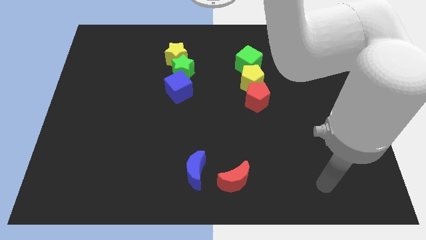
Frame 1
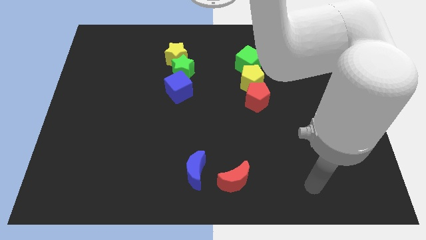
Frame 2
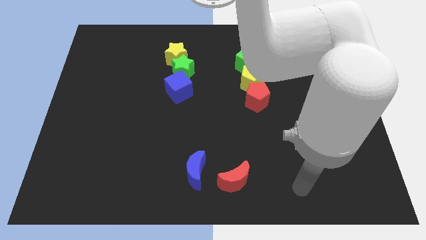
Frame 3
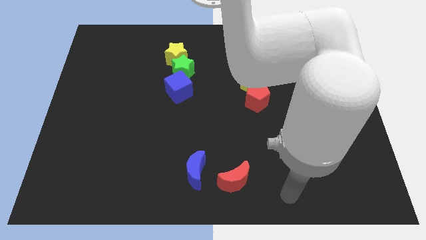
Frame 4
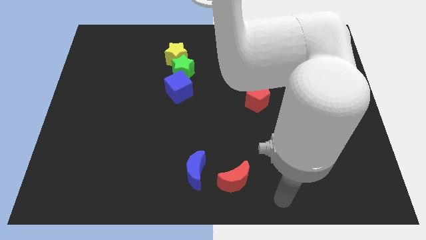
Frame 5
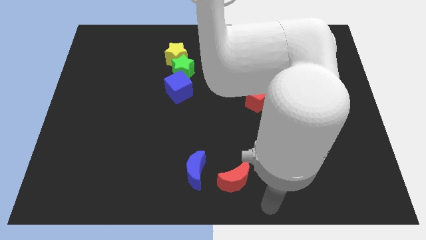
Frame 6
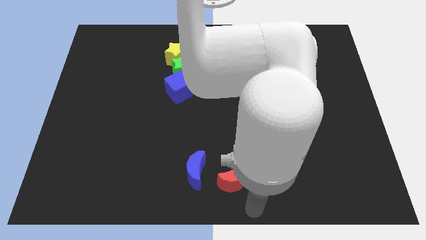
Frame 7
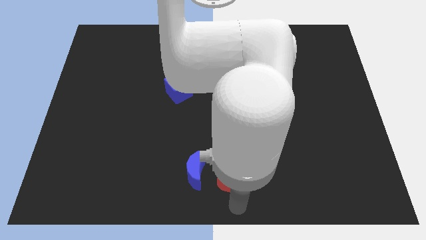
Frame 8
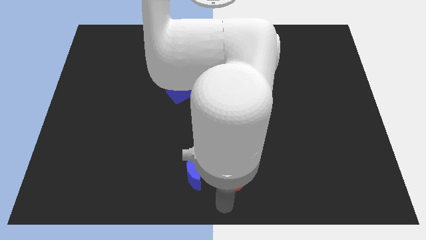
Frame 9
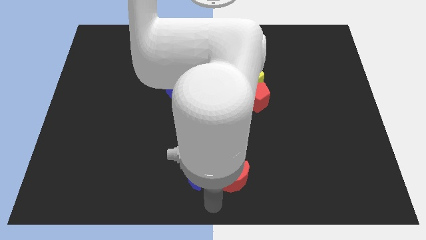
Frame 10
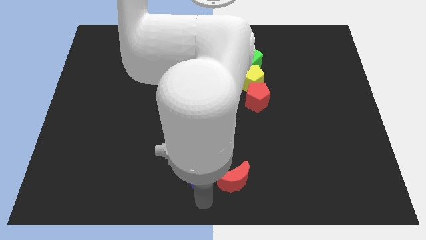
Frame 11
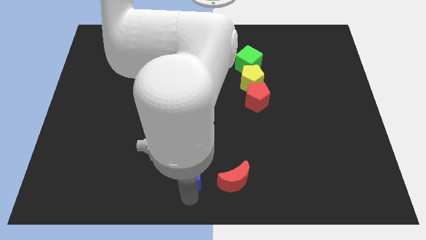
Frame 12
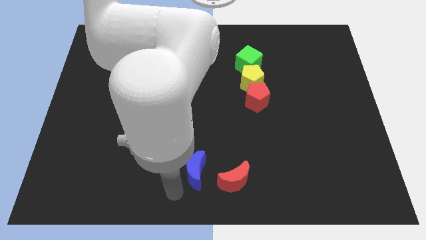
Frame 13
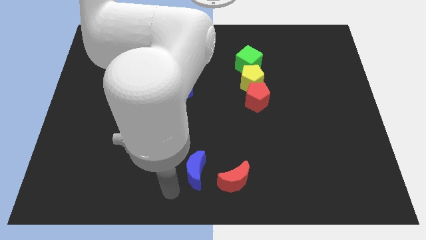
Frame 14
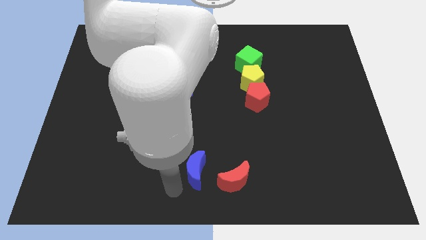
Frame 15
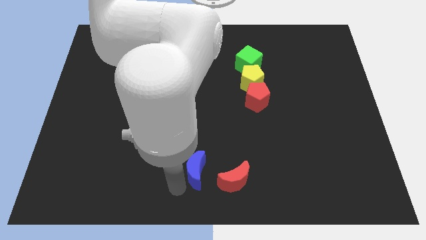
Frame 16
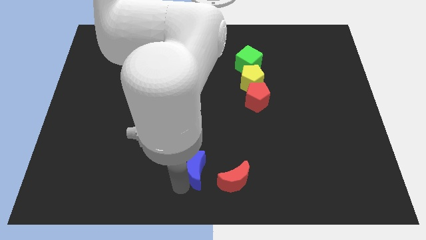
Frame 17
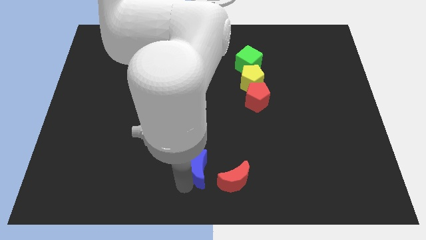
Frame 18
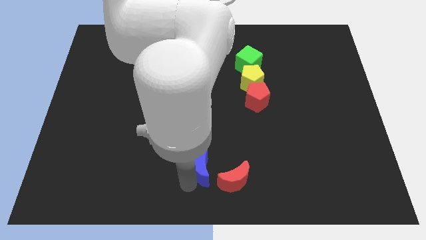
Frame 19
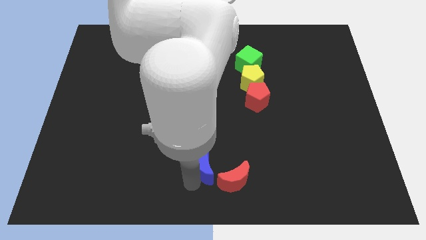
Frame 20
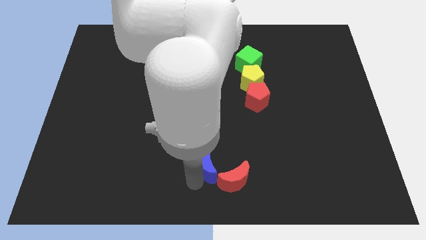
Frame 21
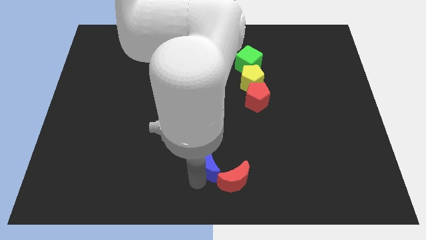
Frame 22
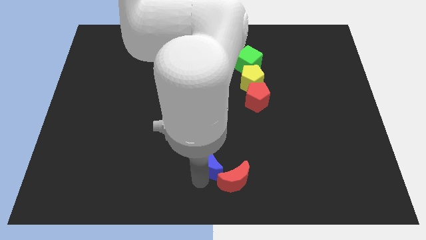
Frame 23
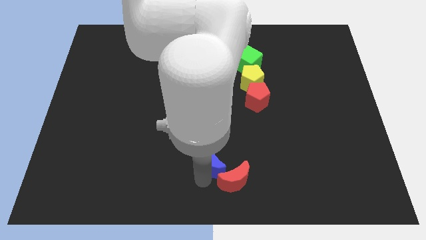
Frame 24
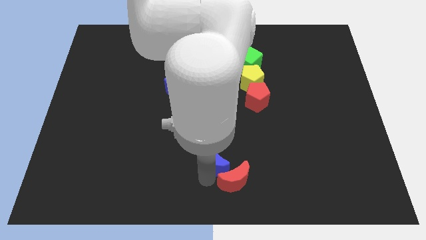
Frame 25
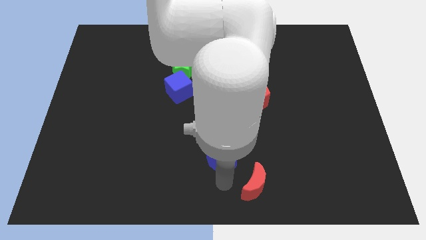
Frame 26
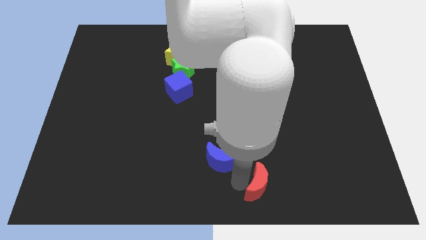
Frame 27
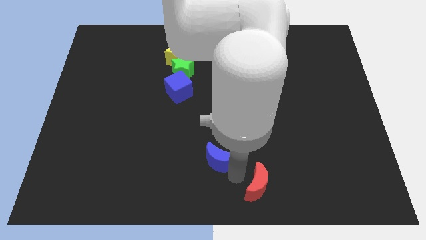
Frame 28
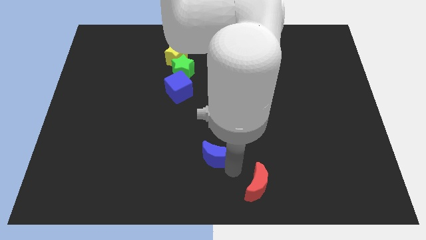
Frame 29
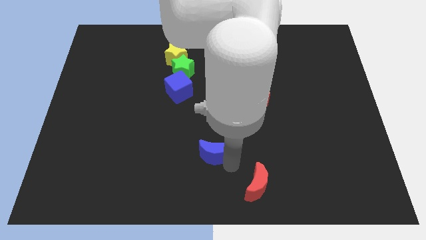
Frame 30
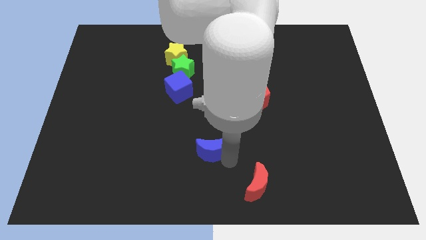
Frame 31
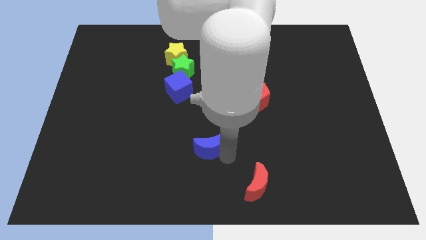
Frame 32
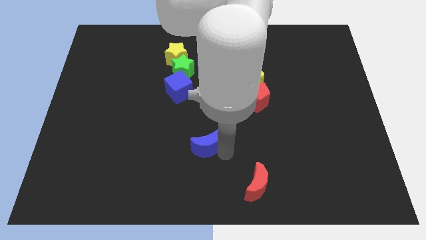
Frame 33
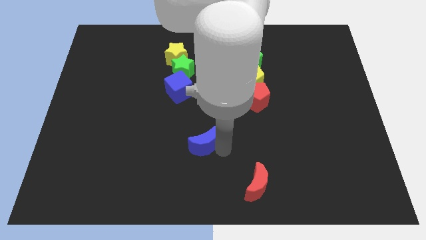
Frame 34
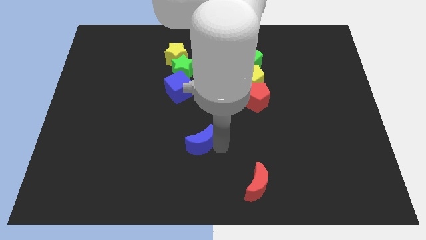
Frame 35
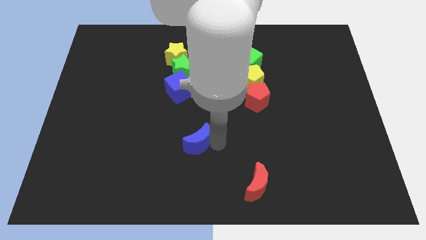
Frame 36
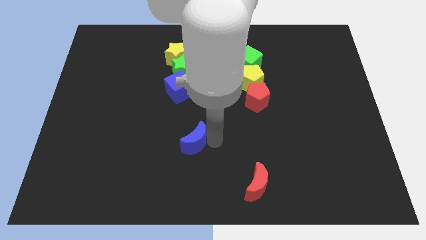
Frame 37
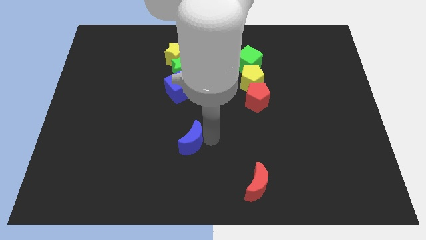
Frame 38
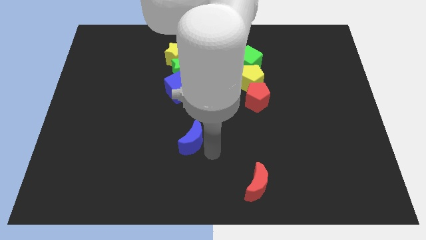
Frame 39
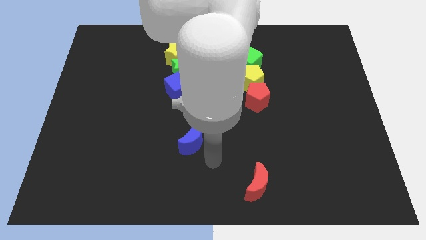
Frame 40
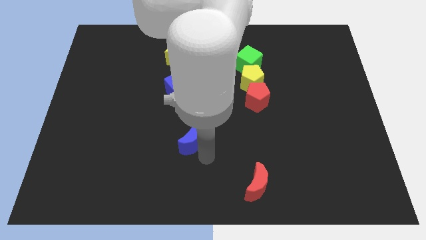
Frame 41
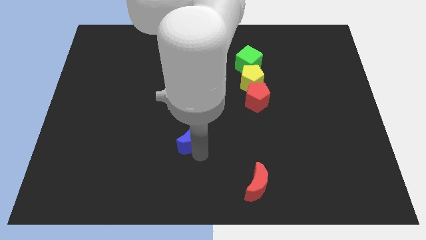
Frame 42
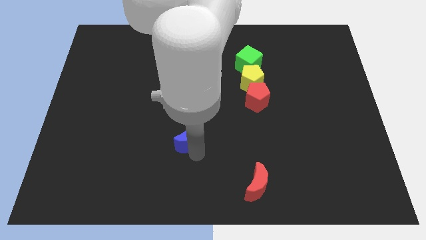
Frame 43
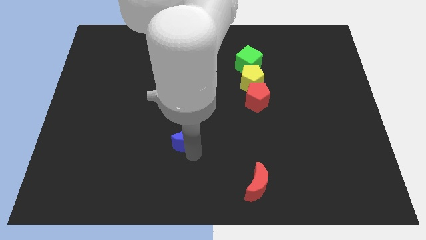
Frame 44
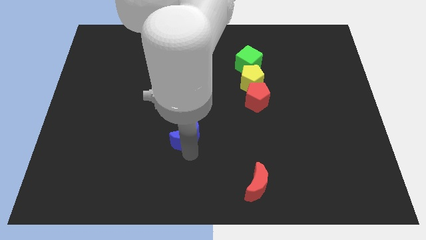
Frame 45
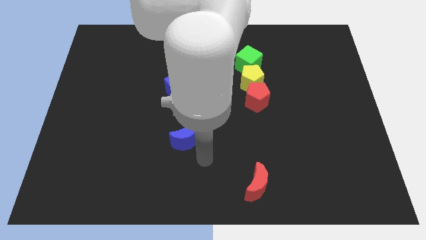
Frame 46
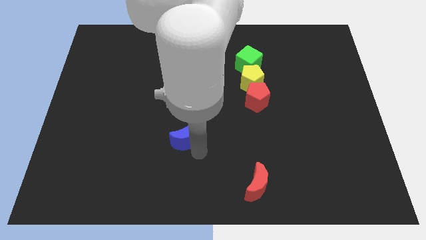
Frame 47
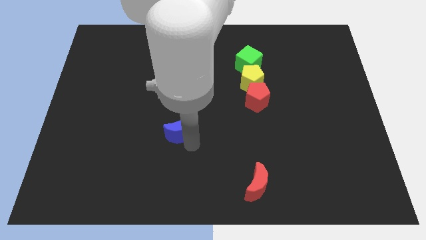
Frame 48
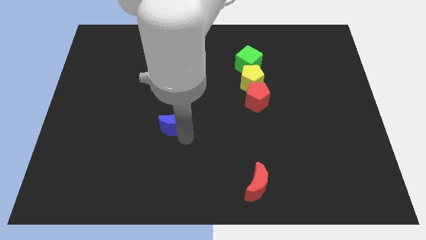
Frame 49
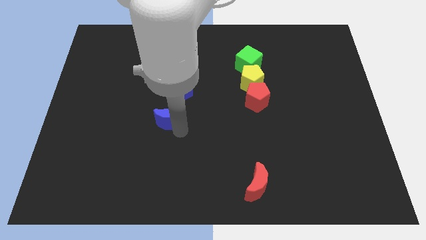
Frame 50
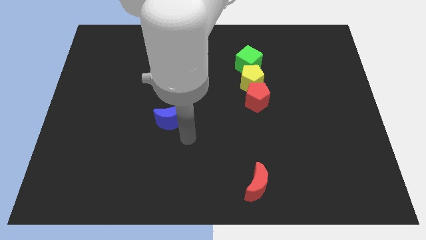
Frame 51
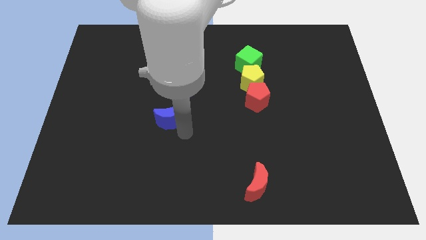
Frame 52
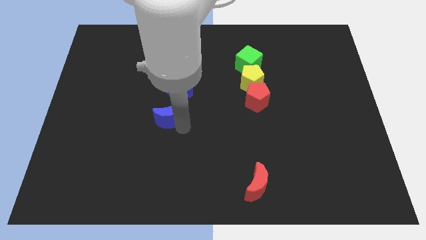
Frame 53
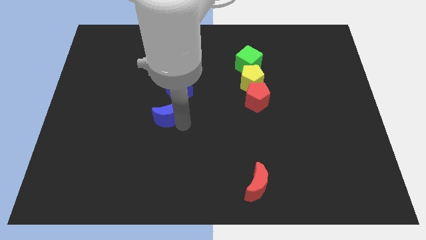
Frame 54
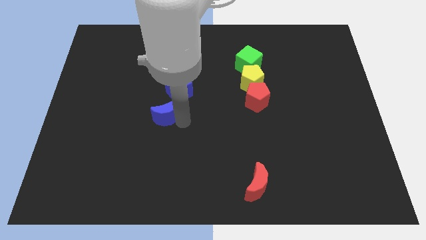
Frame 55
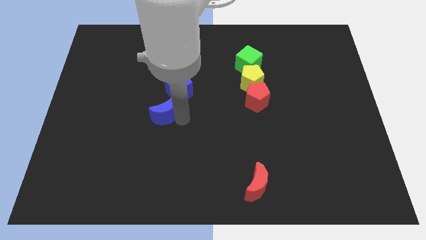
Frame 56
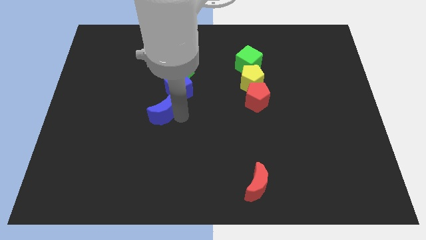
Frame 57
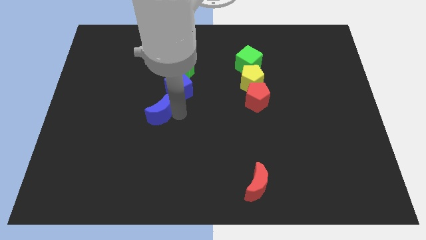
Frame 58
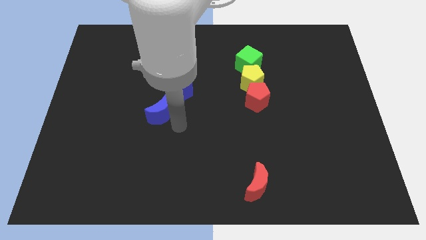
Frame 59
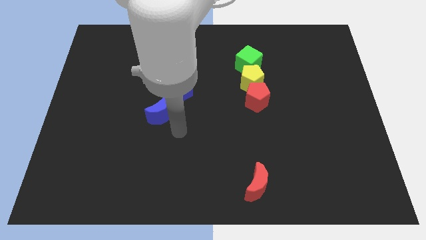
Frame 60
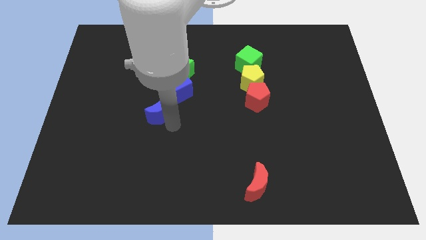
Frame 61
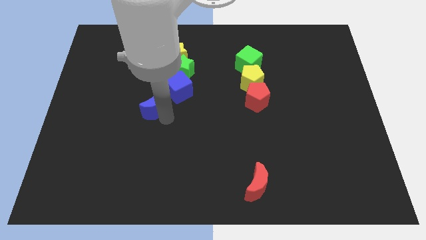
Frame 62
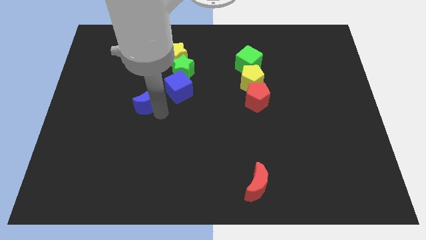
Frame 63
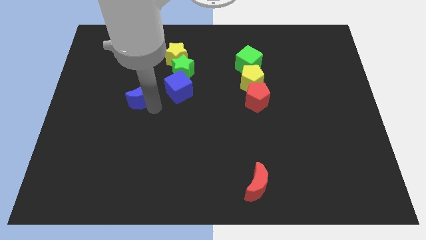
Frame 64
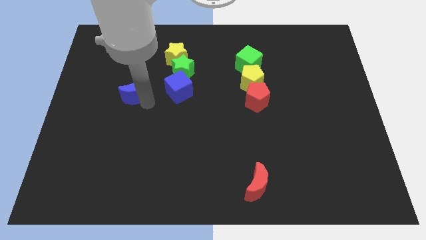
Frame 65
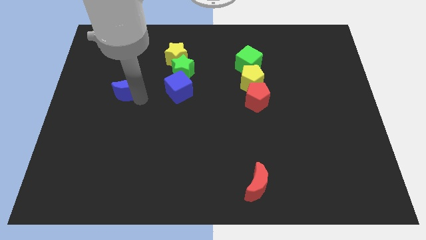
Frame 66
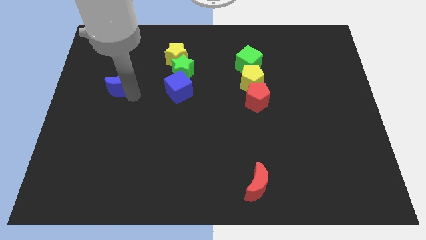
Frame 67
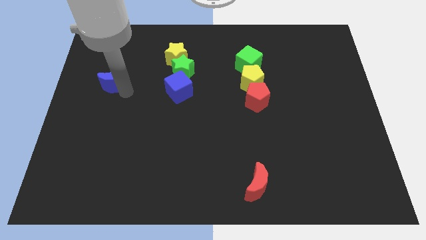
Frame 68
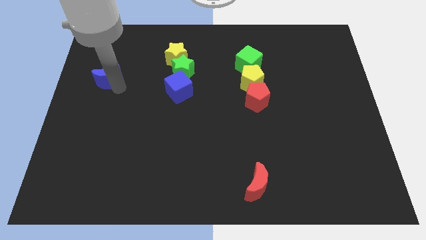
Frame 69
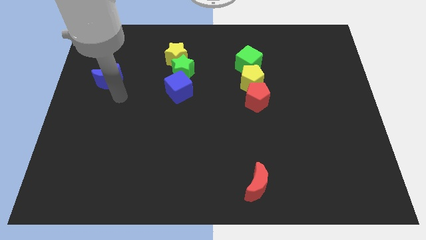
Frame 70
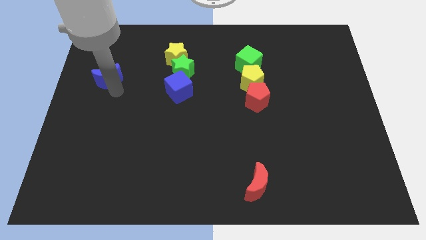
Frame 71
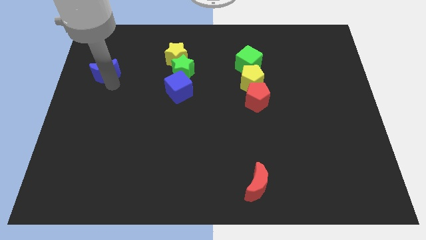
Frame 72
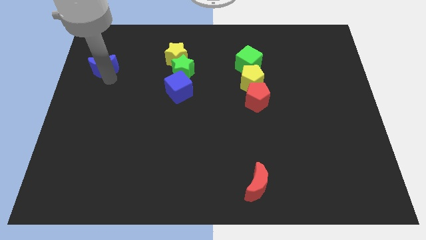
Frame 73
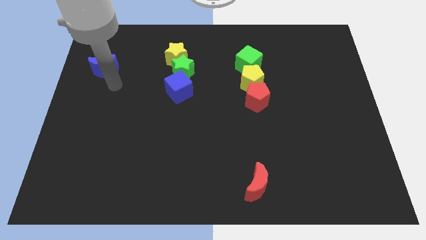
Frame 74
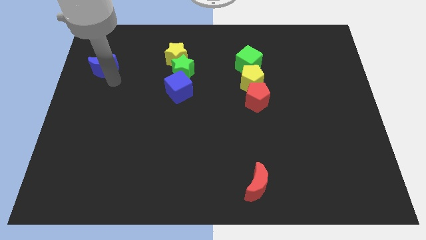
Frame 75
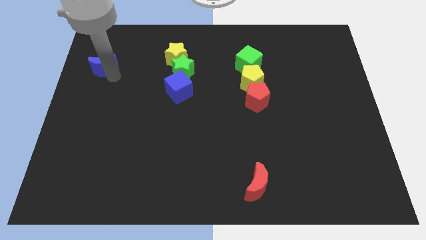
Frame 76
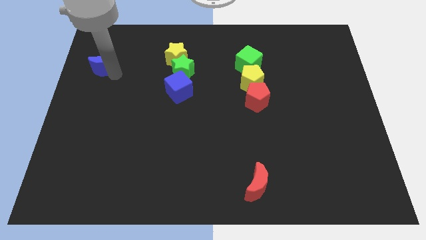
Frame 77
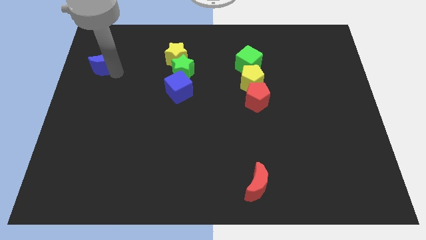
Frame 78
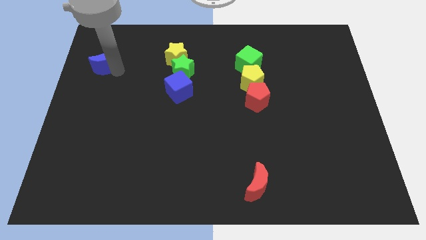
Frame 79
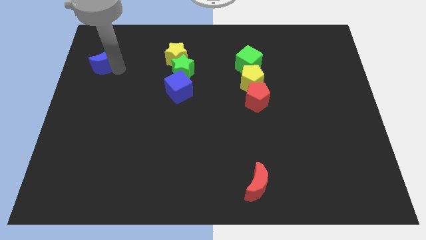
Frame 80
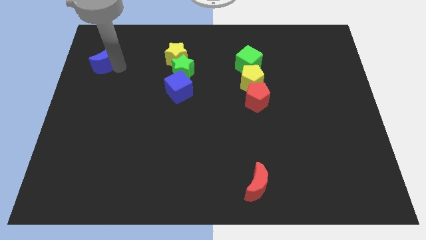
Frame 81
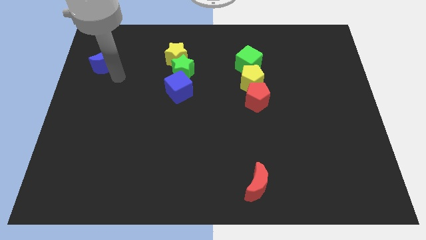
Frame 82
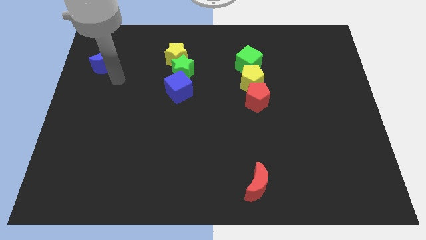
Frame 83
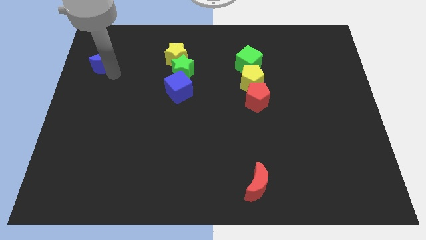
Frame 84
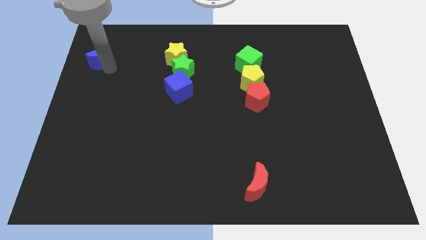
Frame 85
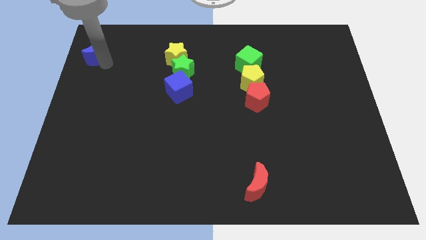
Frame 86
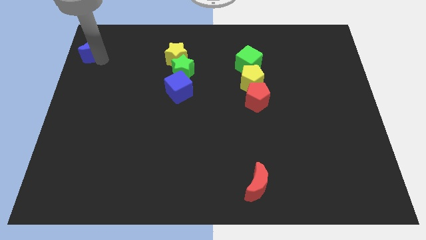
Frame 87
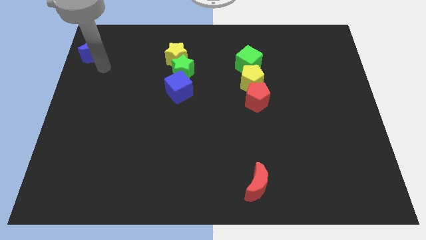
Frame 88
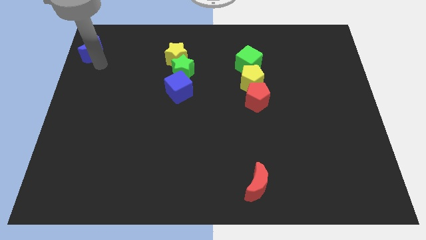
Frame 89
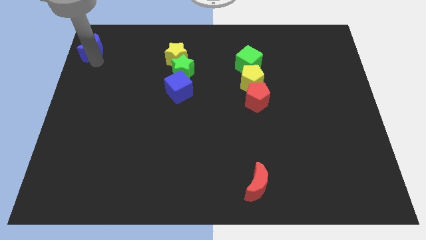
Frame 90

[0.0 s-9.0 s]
move the blue moon to the top left of the board
